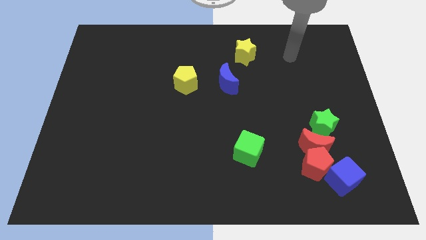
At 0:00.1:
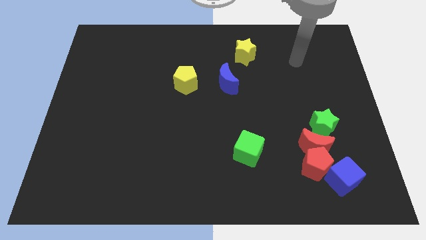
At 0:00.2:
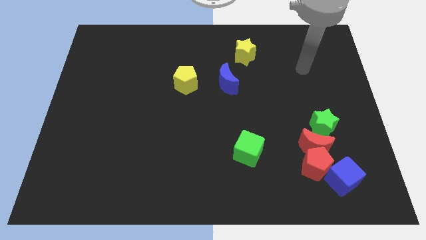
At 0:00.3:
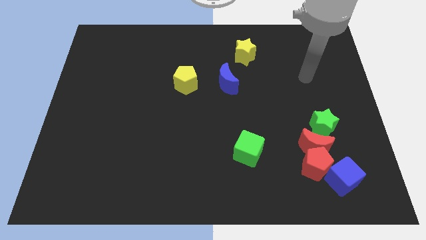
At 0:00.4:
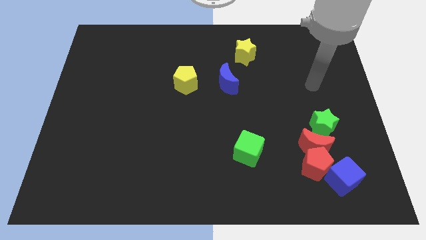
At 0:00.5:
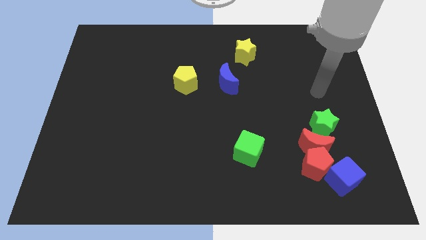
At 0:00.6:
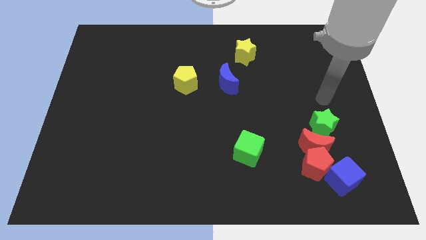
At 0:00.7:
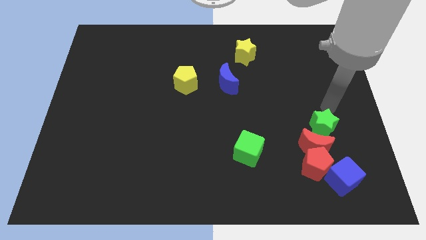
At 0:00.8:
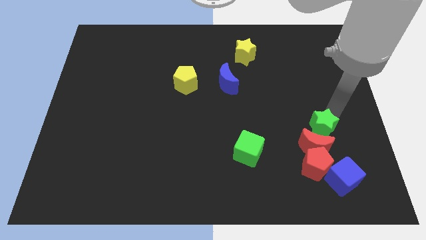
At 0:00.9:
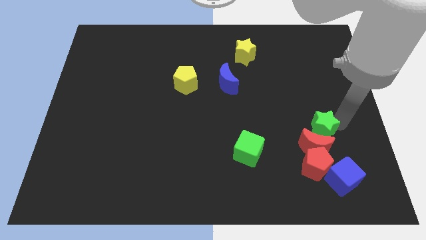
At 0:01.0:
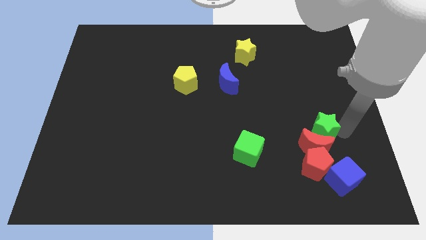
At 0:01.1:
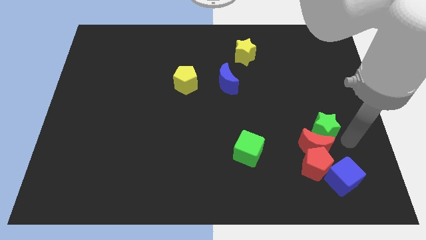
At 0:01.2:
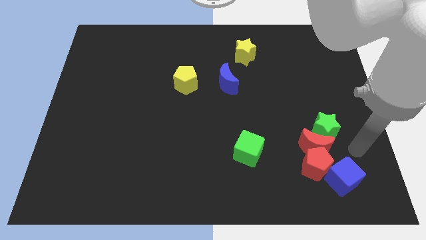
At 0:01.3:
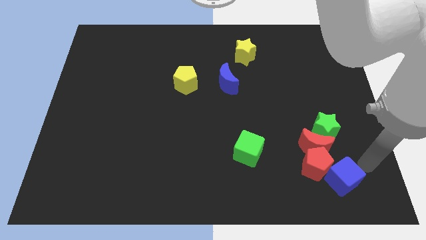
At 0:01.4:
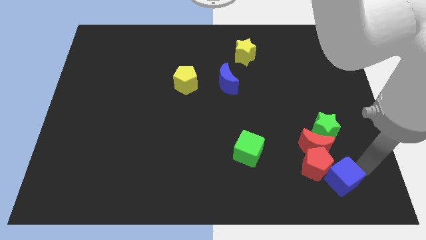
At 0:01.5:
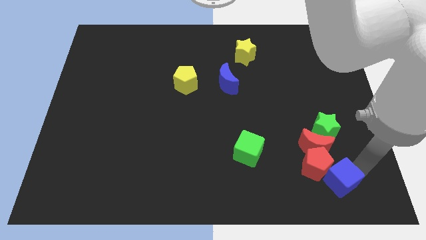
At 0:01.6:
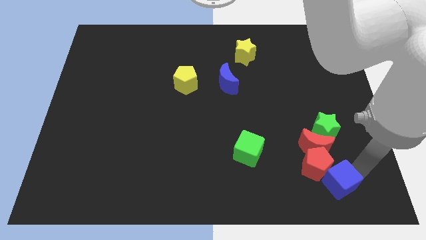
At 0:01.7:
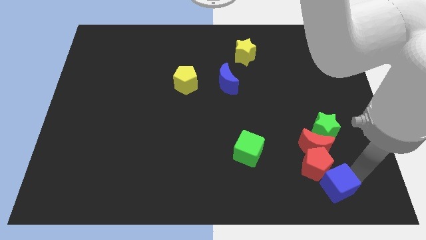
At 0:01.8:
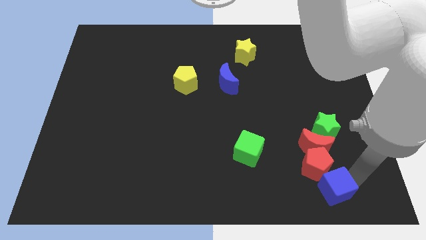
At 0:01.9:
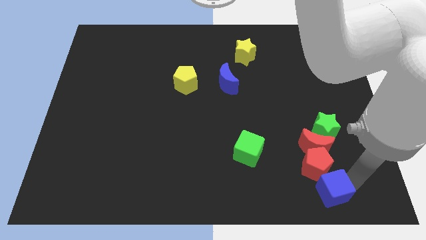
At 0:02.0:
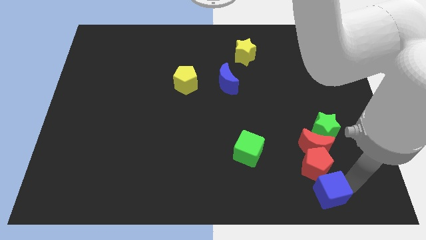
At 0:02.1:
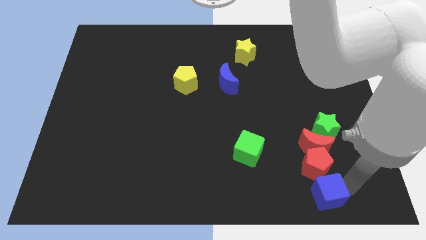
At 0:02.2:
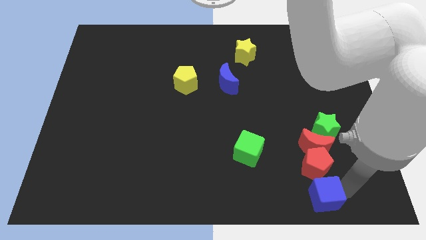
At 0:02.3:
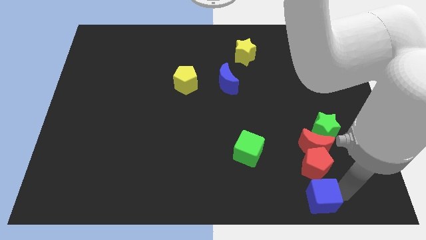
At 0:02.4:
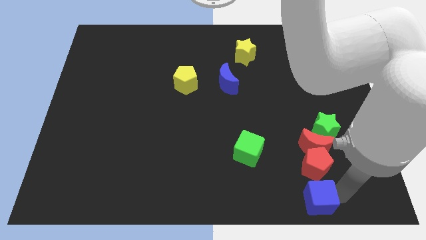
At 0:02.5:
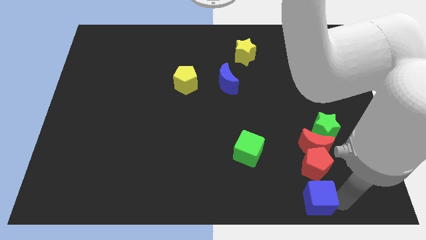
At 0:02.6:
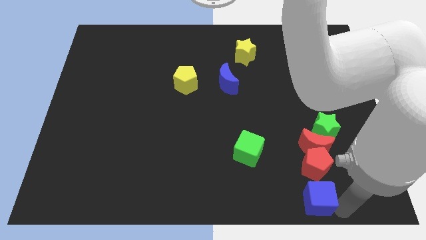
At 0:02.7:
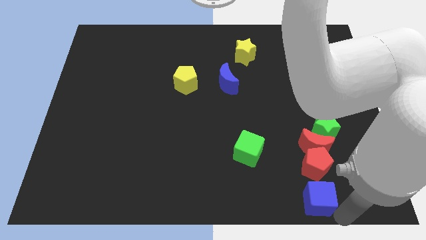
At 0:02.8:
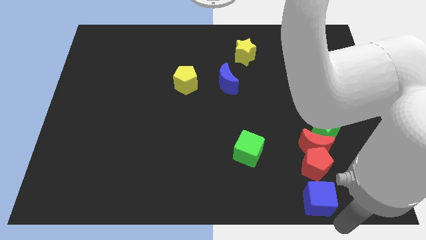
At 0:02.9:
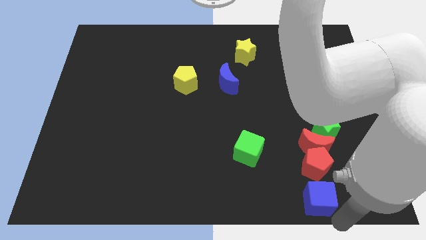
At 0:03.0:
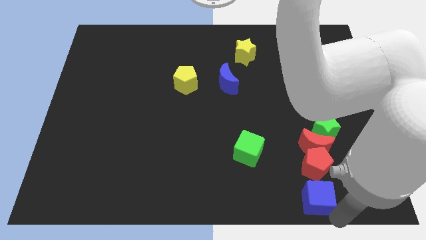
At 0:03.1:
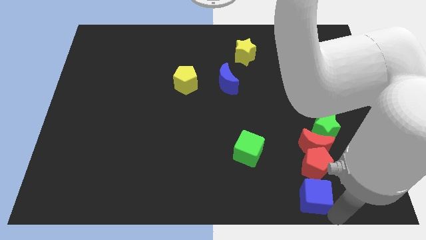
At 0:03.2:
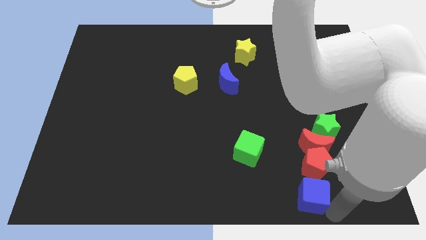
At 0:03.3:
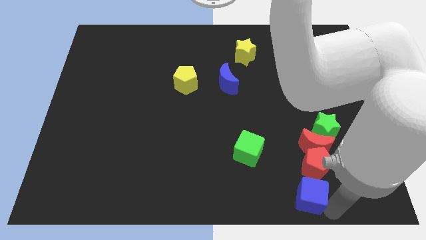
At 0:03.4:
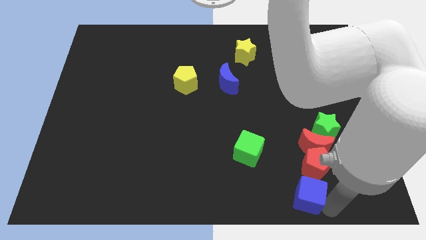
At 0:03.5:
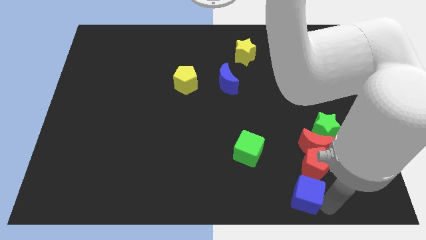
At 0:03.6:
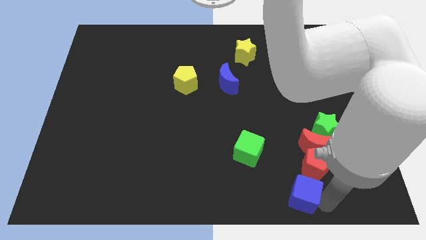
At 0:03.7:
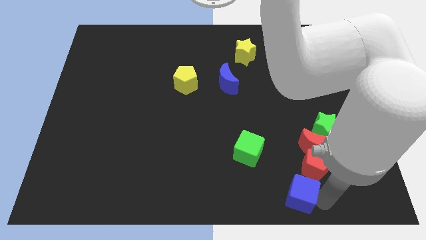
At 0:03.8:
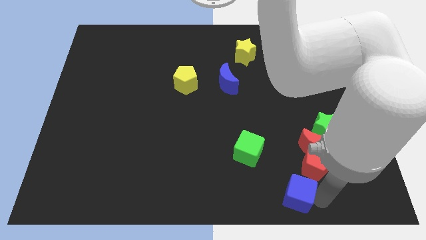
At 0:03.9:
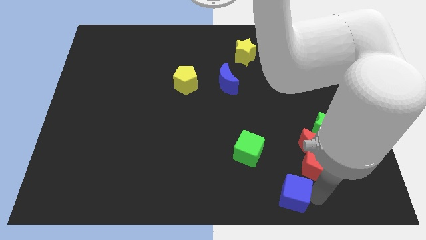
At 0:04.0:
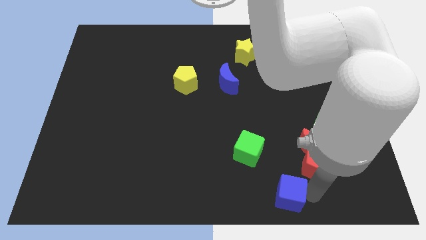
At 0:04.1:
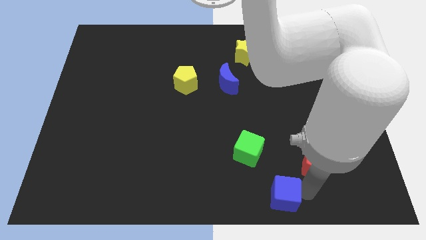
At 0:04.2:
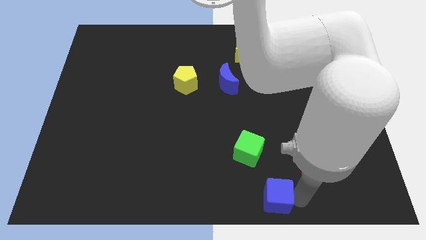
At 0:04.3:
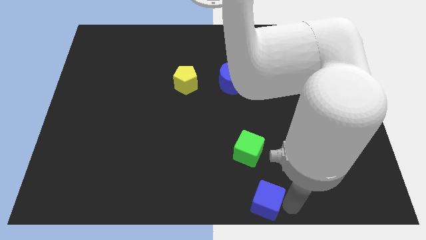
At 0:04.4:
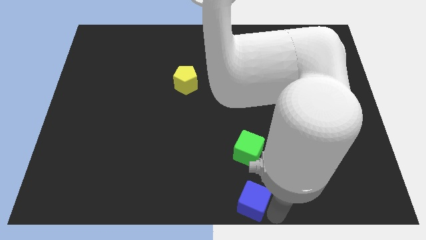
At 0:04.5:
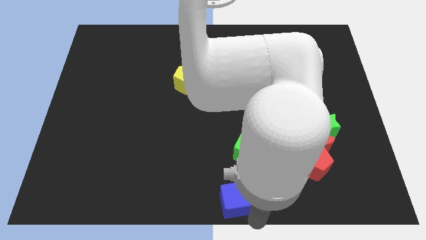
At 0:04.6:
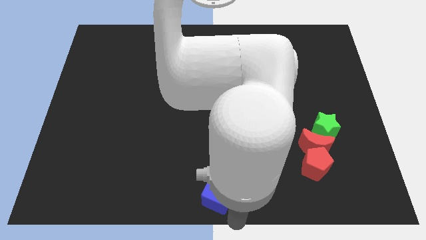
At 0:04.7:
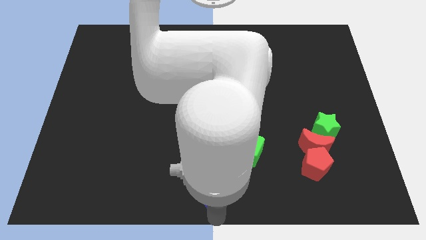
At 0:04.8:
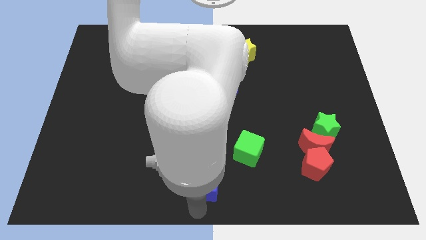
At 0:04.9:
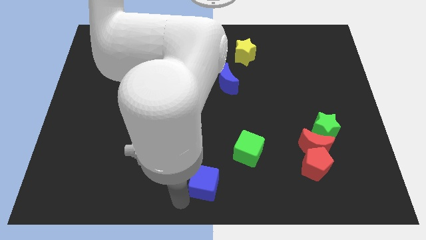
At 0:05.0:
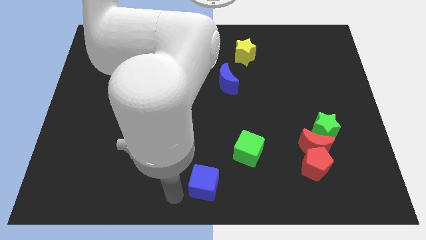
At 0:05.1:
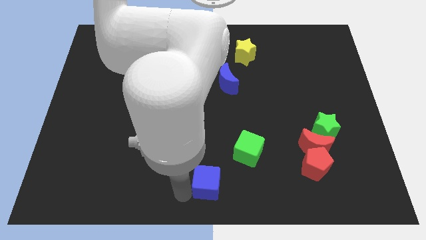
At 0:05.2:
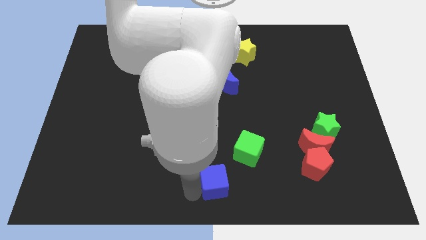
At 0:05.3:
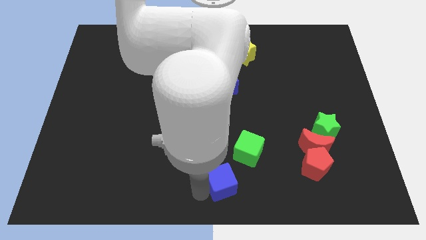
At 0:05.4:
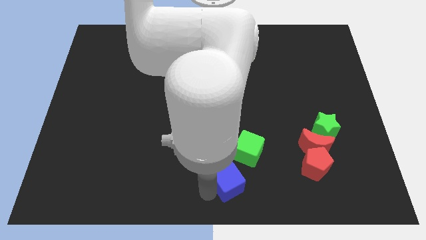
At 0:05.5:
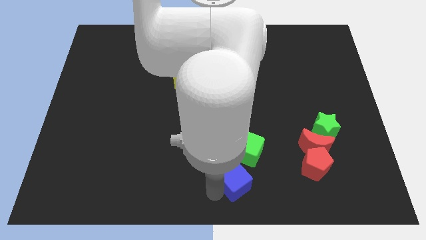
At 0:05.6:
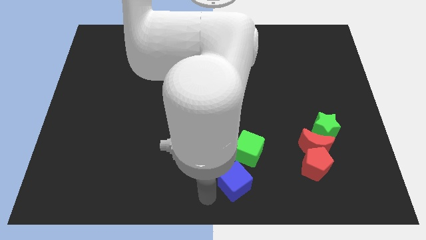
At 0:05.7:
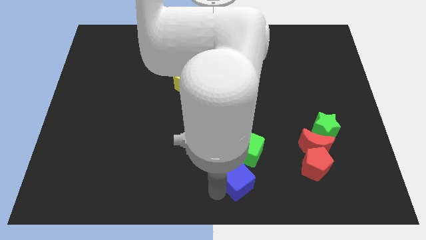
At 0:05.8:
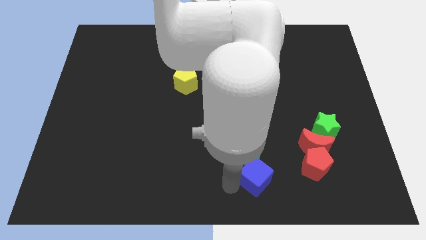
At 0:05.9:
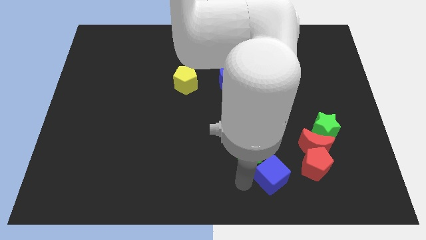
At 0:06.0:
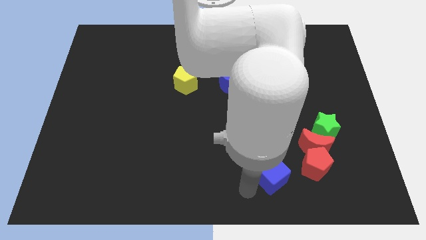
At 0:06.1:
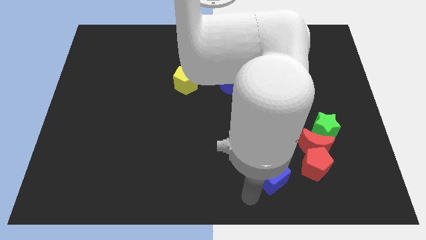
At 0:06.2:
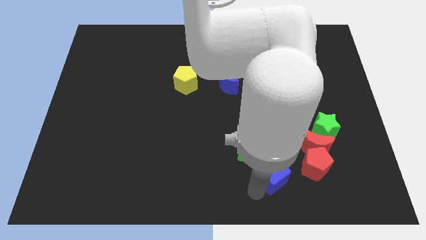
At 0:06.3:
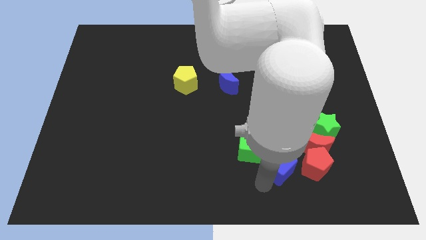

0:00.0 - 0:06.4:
put the blue cube just right of the green cube

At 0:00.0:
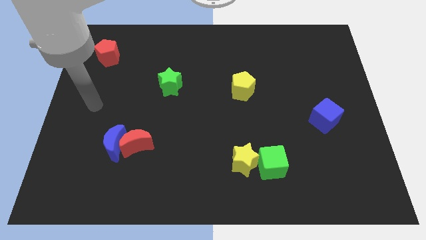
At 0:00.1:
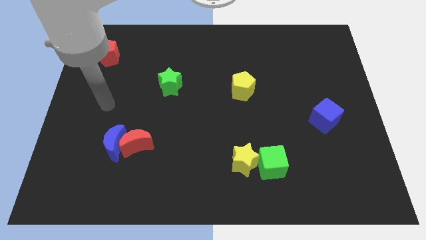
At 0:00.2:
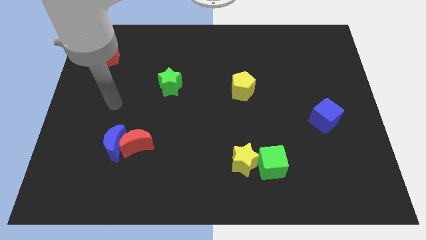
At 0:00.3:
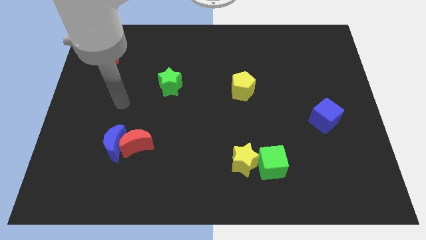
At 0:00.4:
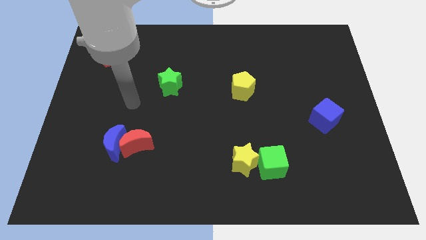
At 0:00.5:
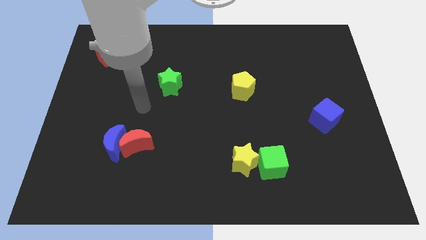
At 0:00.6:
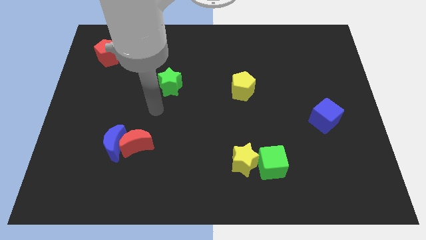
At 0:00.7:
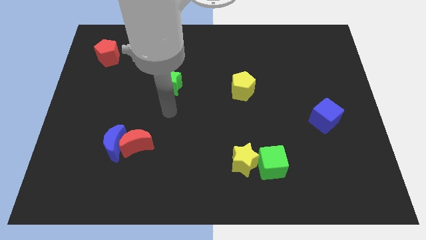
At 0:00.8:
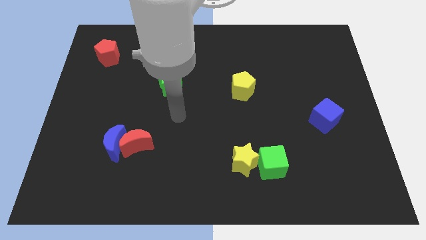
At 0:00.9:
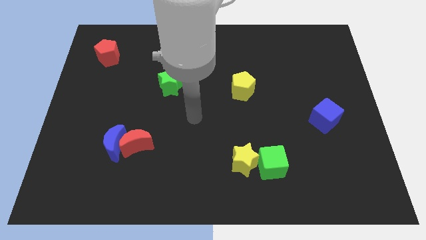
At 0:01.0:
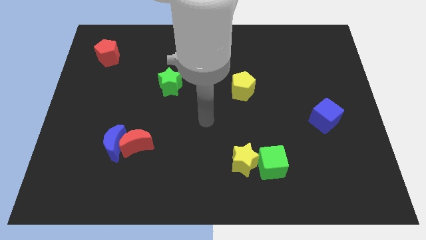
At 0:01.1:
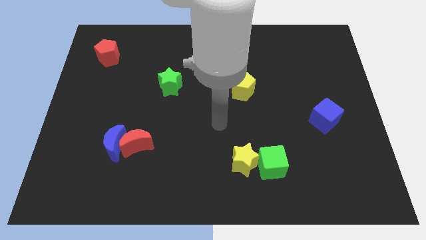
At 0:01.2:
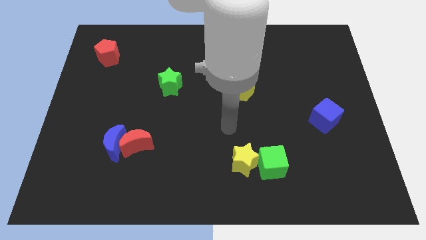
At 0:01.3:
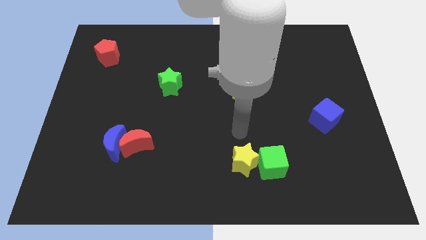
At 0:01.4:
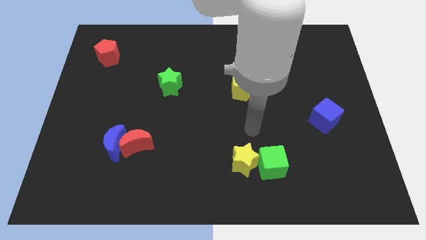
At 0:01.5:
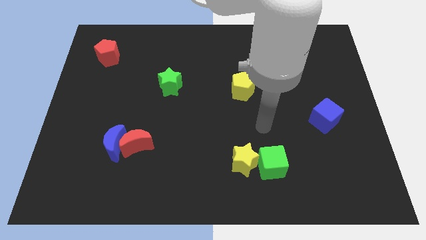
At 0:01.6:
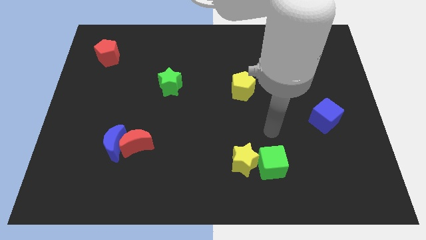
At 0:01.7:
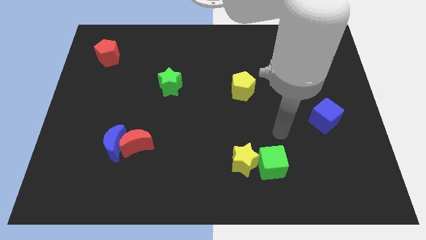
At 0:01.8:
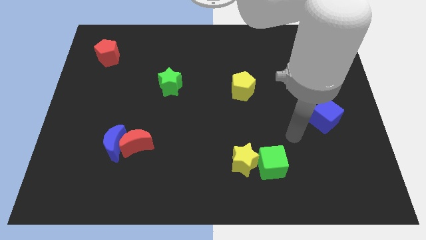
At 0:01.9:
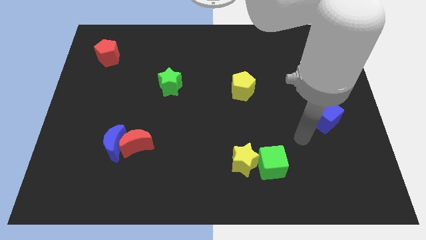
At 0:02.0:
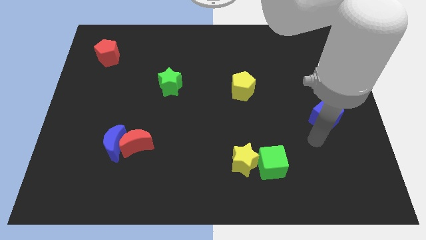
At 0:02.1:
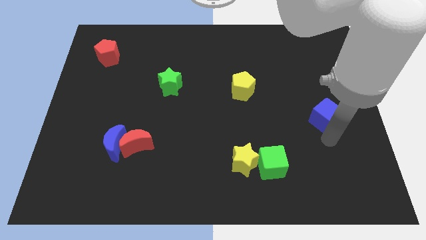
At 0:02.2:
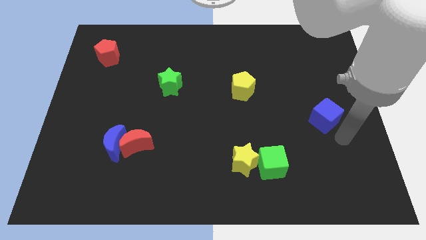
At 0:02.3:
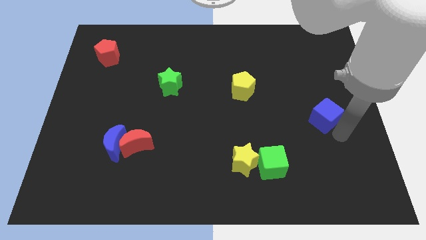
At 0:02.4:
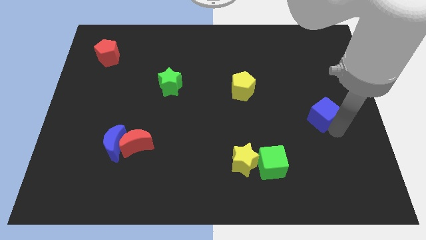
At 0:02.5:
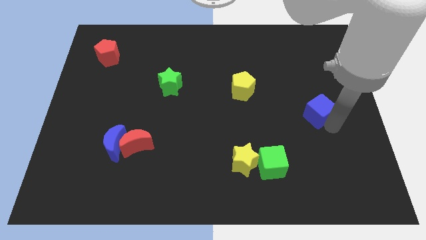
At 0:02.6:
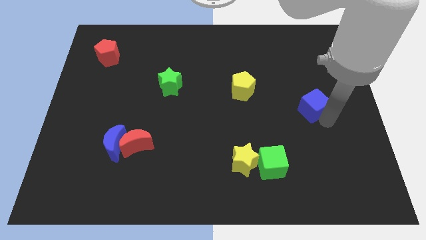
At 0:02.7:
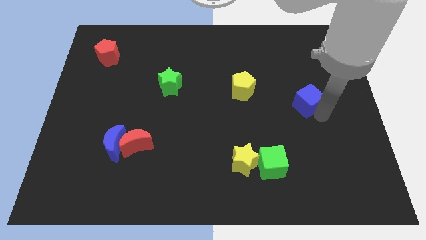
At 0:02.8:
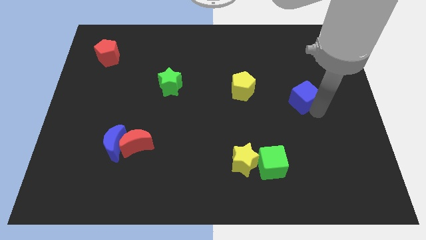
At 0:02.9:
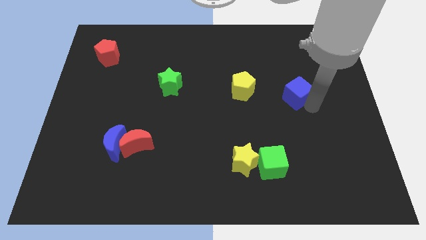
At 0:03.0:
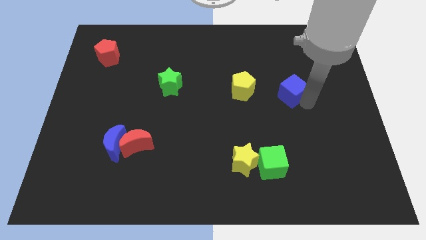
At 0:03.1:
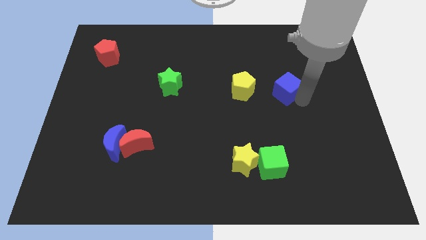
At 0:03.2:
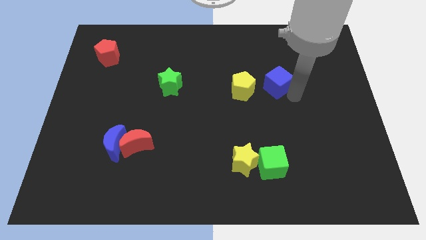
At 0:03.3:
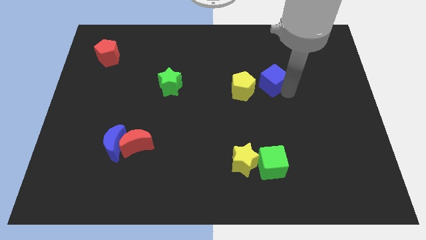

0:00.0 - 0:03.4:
move the blue cube to the top right of the yellow pentagon
